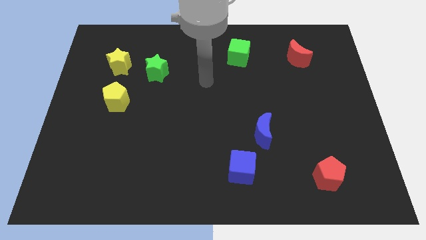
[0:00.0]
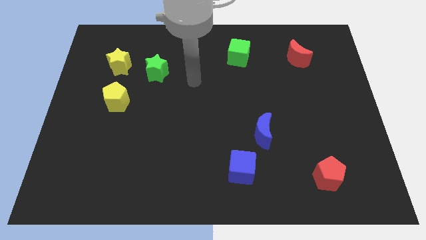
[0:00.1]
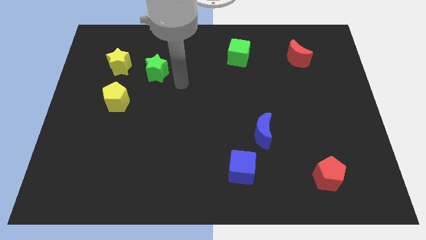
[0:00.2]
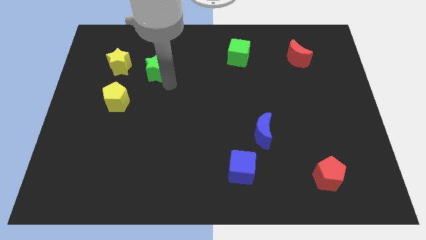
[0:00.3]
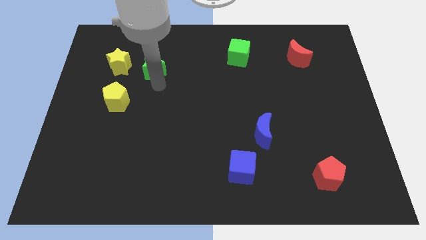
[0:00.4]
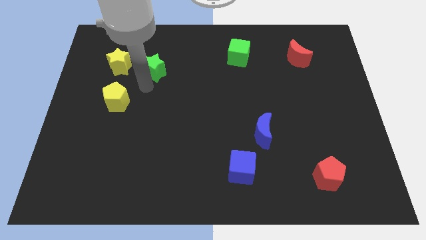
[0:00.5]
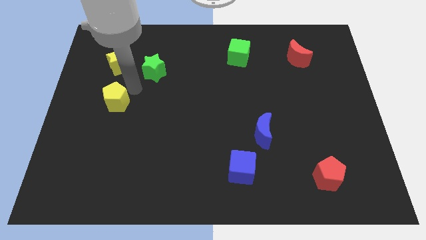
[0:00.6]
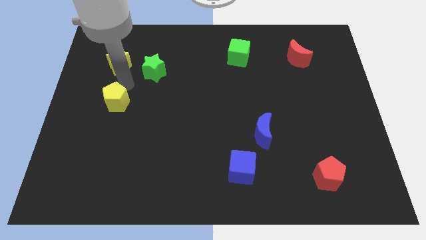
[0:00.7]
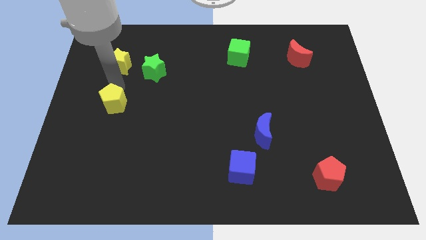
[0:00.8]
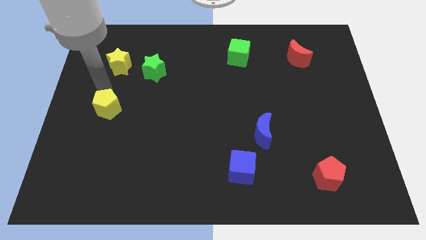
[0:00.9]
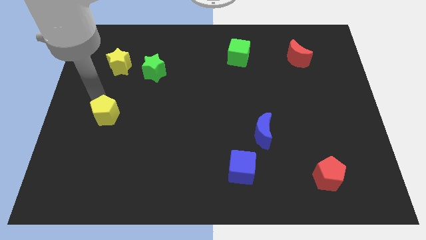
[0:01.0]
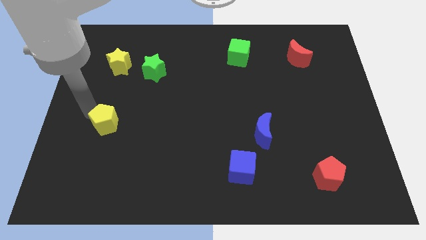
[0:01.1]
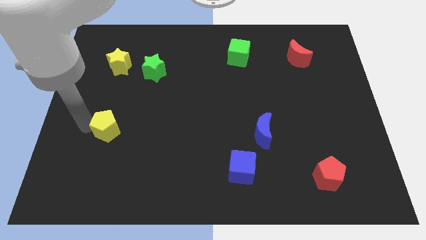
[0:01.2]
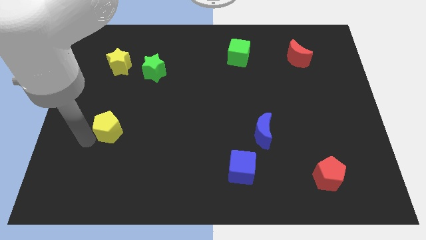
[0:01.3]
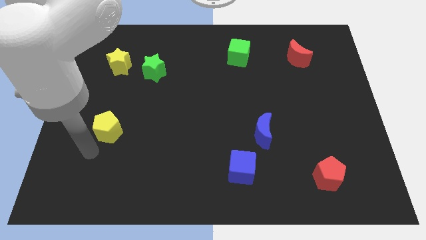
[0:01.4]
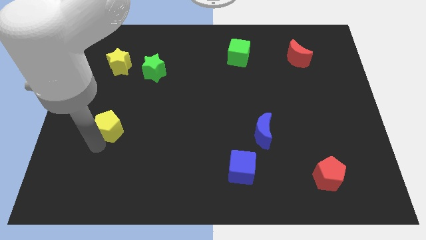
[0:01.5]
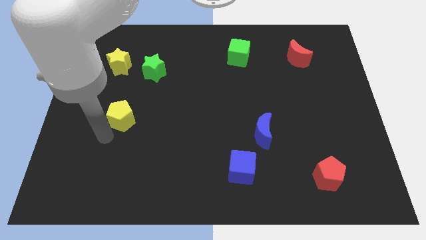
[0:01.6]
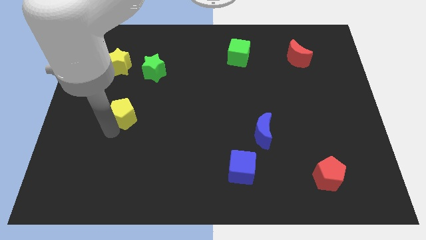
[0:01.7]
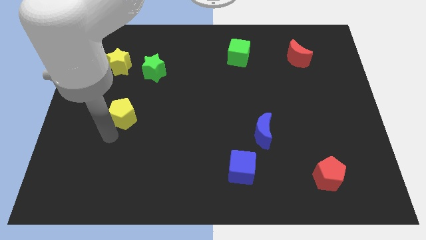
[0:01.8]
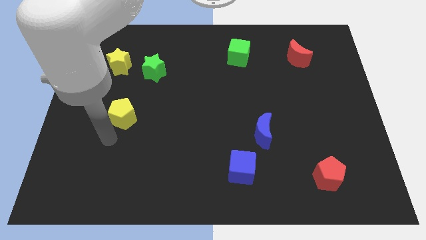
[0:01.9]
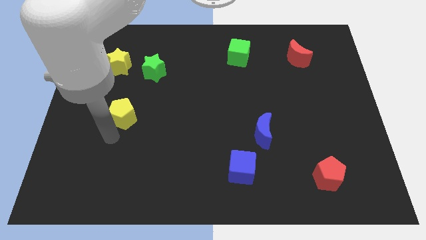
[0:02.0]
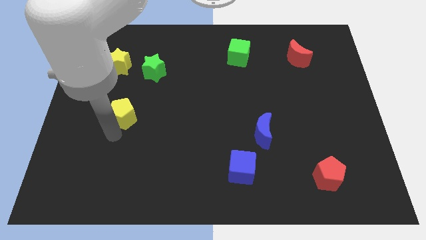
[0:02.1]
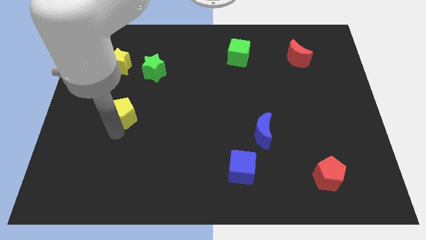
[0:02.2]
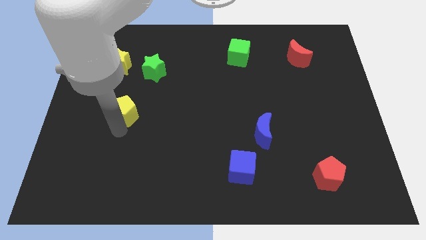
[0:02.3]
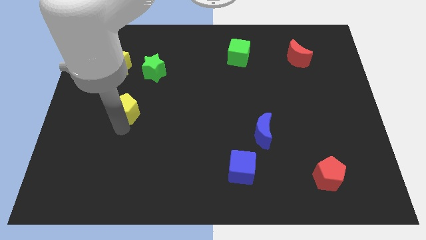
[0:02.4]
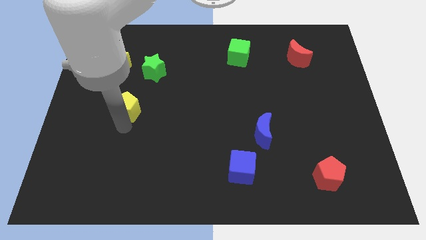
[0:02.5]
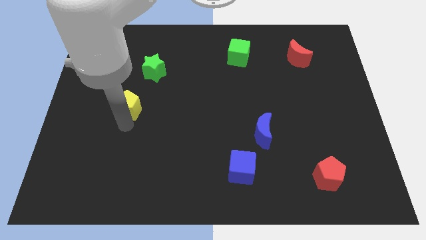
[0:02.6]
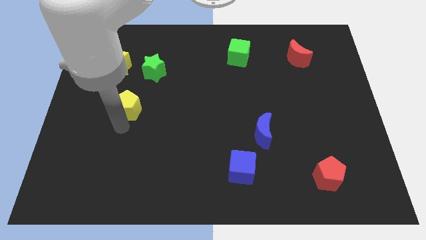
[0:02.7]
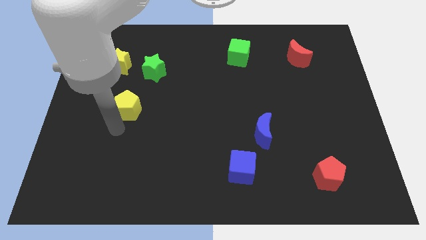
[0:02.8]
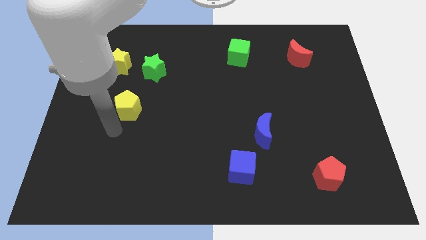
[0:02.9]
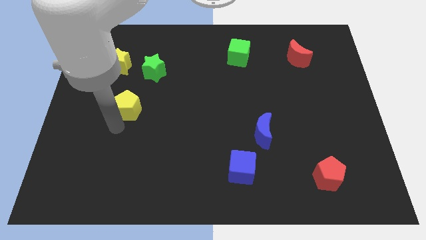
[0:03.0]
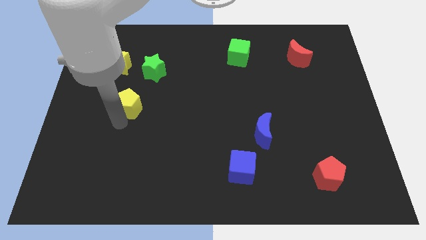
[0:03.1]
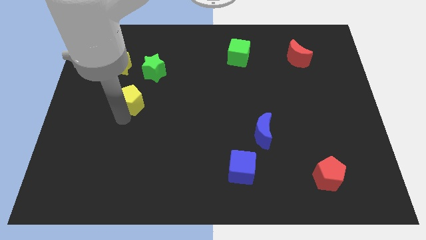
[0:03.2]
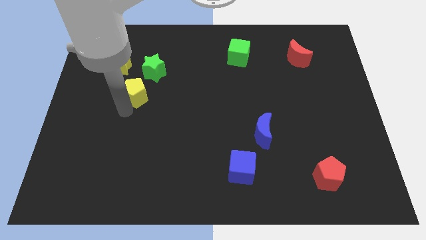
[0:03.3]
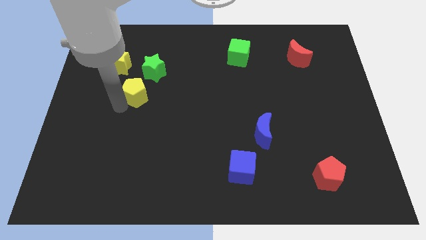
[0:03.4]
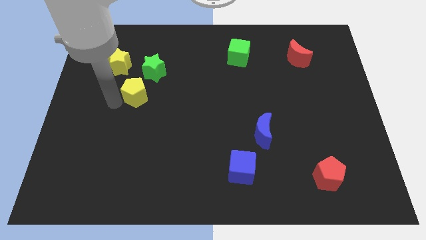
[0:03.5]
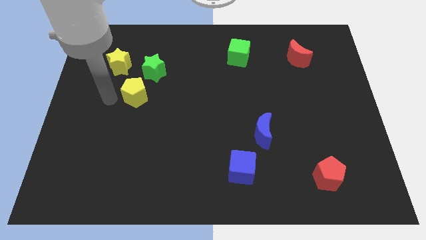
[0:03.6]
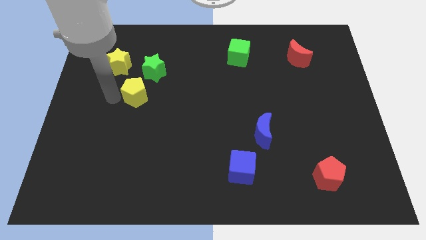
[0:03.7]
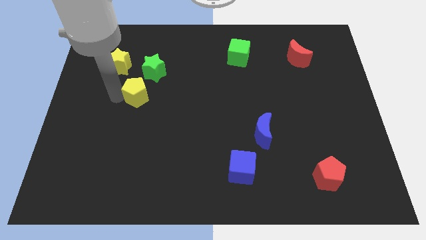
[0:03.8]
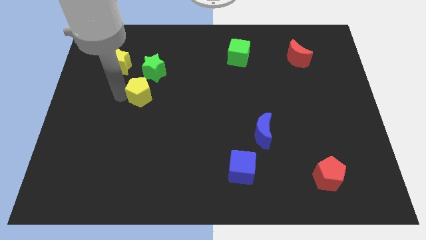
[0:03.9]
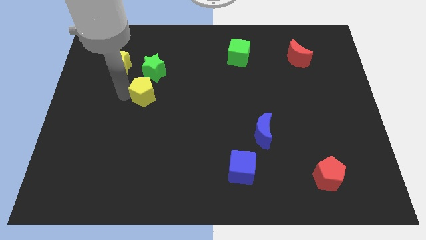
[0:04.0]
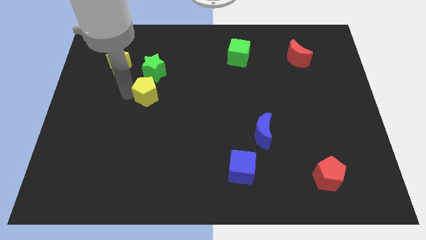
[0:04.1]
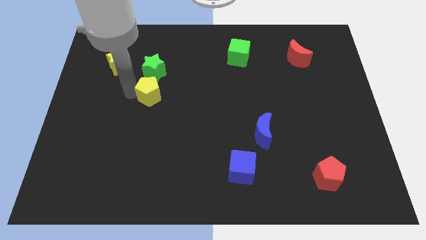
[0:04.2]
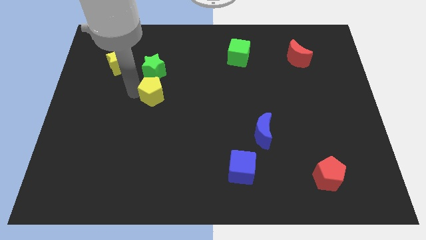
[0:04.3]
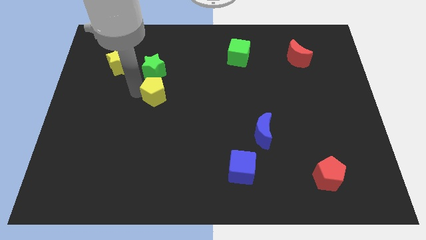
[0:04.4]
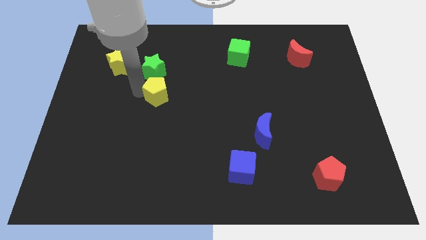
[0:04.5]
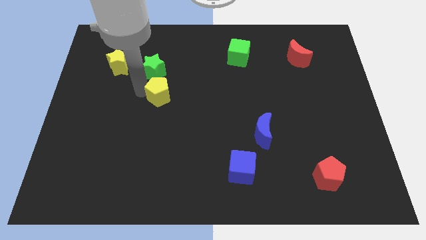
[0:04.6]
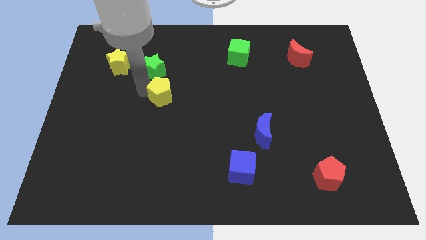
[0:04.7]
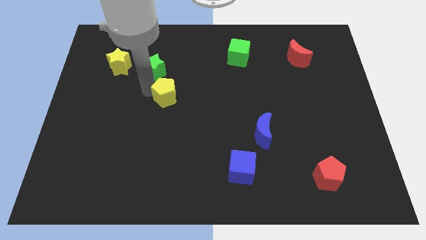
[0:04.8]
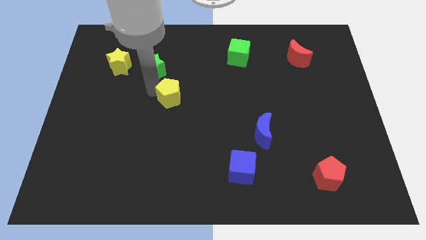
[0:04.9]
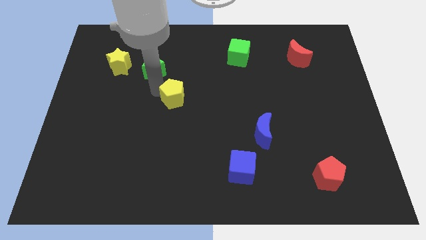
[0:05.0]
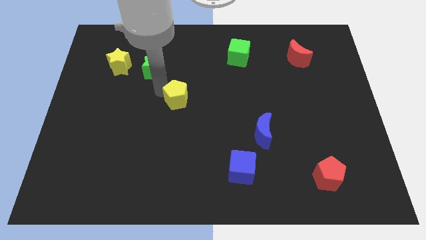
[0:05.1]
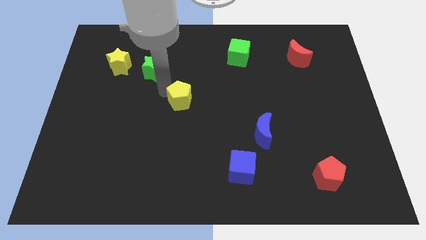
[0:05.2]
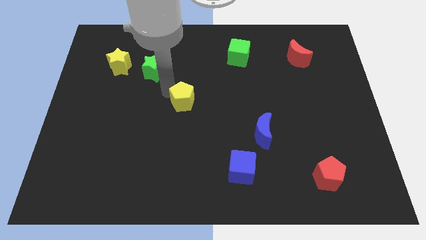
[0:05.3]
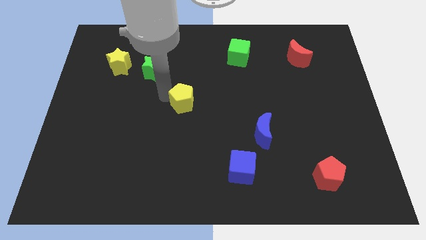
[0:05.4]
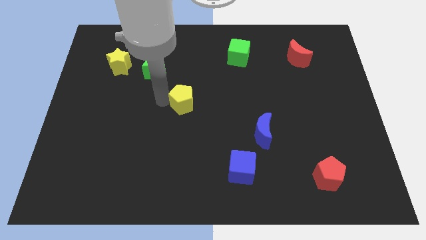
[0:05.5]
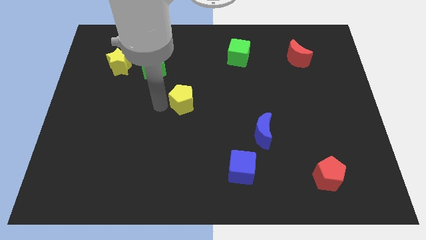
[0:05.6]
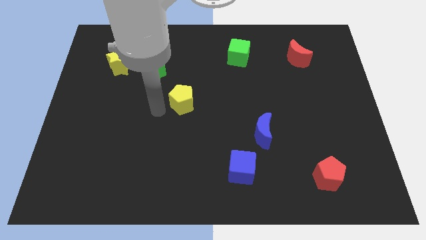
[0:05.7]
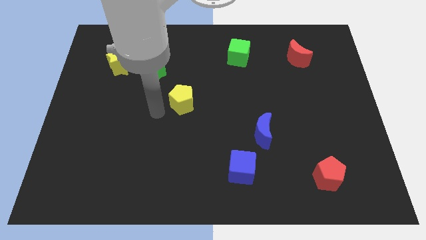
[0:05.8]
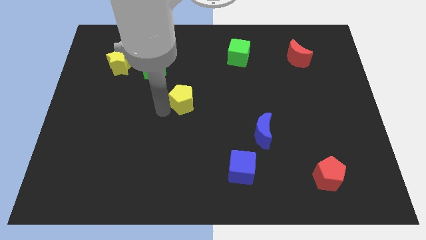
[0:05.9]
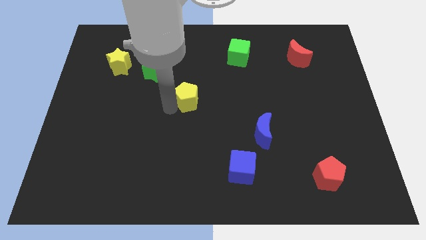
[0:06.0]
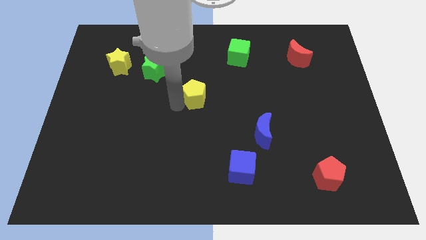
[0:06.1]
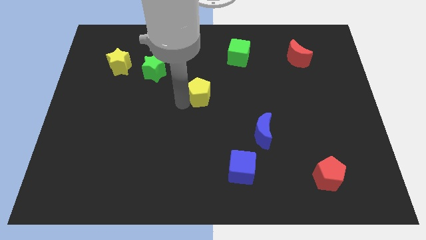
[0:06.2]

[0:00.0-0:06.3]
move the yellow pentagon right

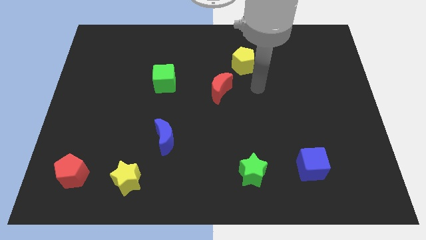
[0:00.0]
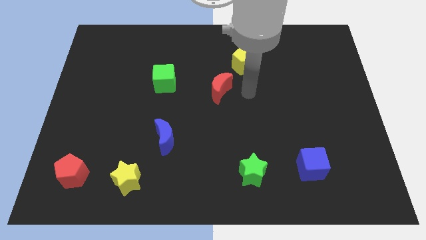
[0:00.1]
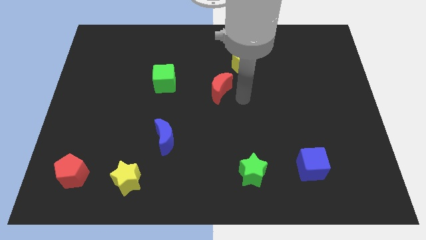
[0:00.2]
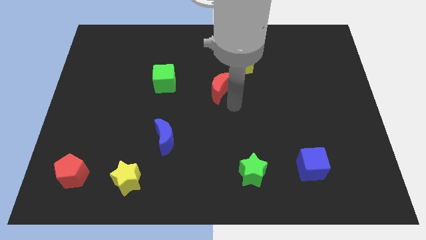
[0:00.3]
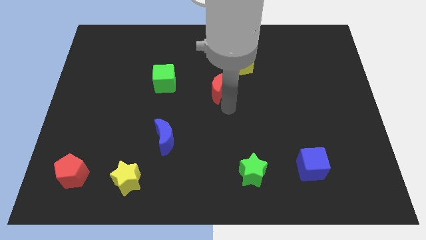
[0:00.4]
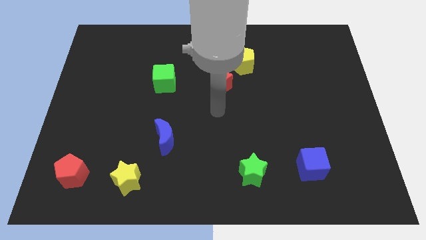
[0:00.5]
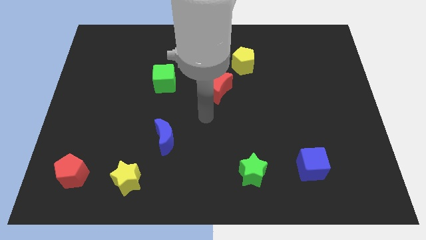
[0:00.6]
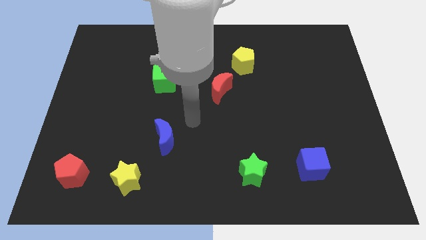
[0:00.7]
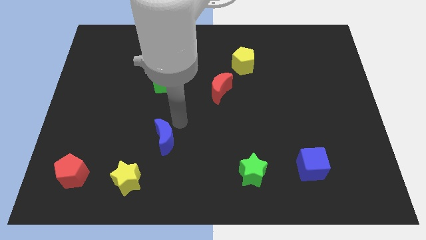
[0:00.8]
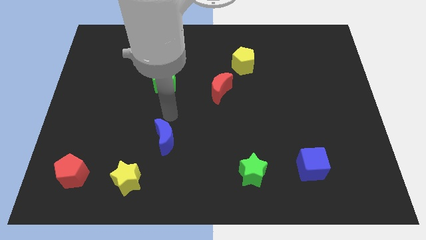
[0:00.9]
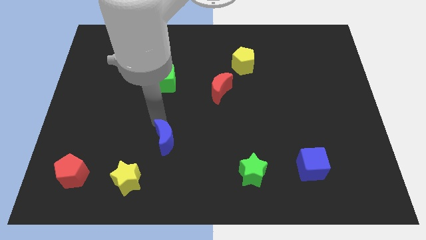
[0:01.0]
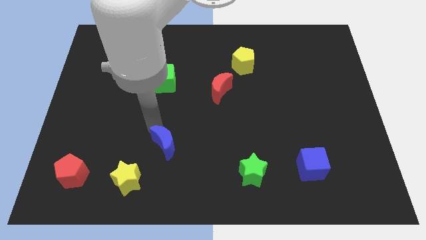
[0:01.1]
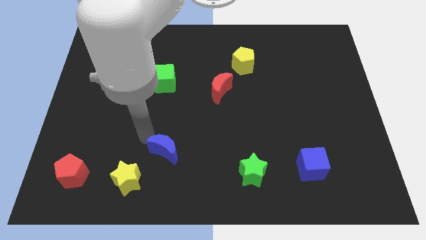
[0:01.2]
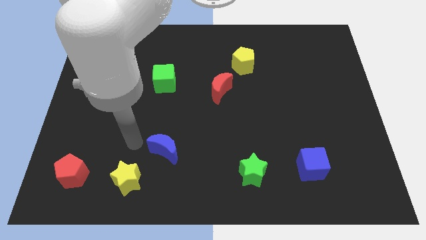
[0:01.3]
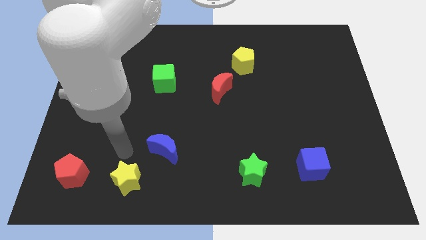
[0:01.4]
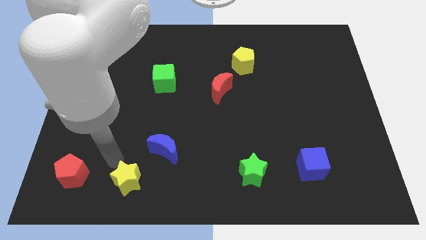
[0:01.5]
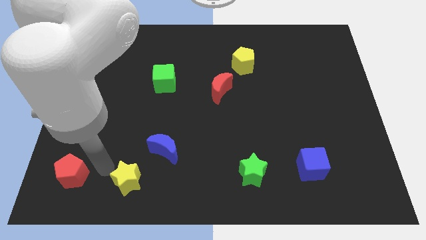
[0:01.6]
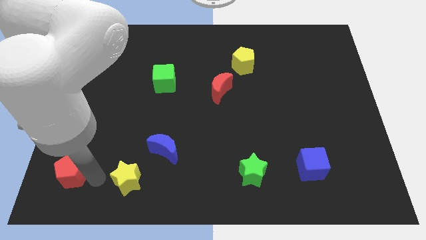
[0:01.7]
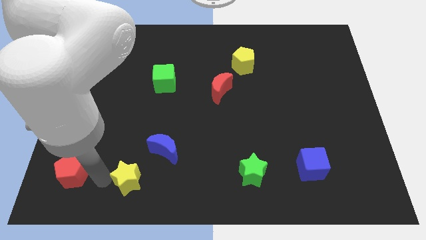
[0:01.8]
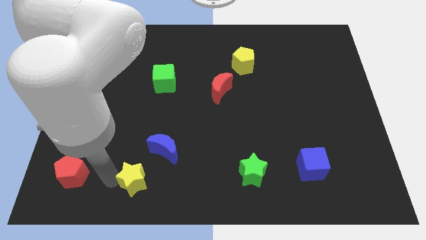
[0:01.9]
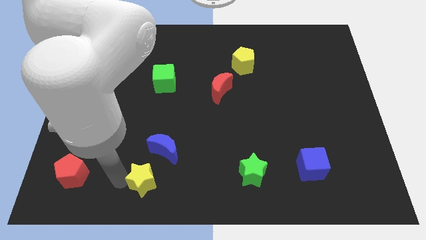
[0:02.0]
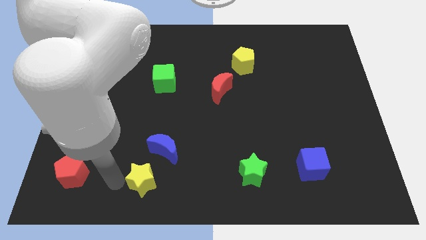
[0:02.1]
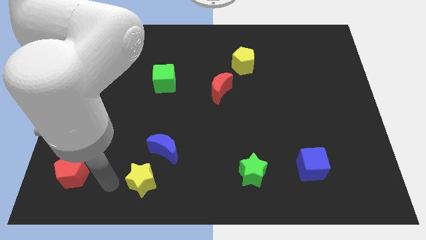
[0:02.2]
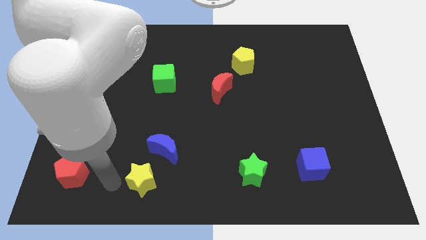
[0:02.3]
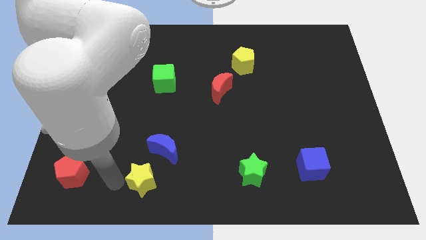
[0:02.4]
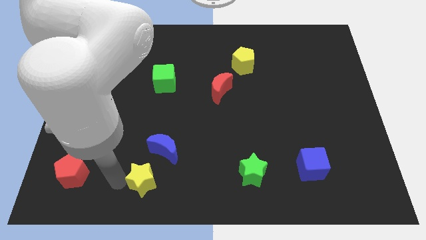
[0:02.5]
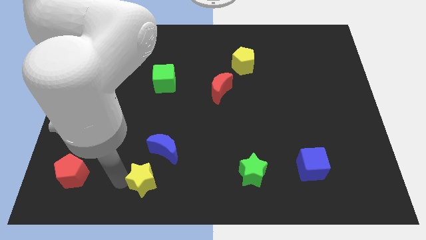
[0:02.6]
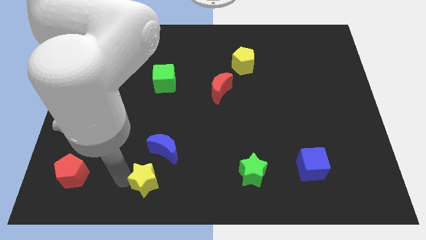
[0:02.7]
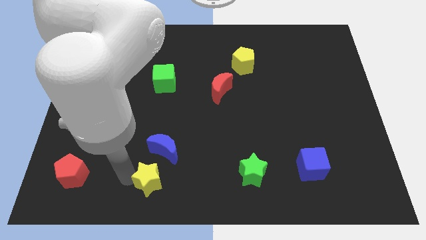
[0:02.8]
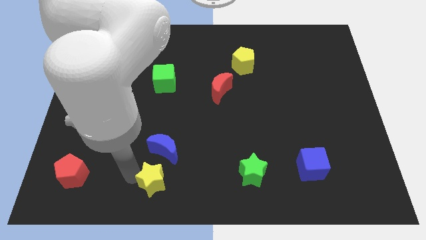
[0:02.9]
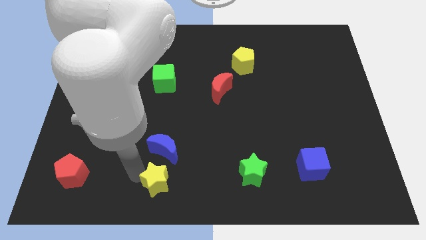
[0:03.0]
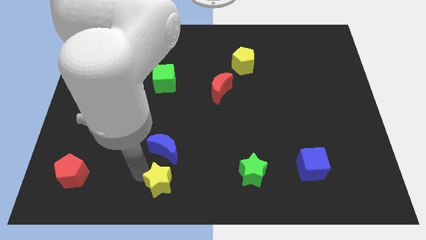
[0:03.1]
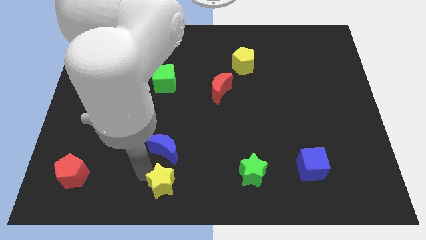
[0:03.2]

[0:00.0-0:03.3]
slightly slide the yellow star right
